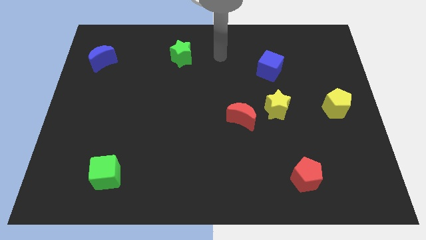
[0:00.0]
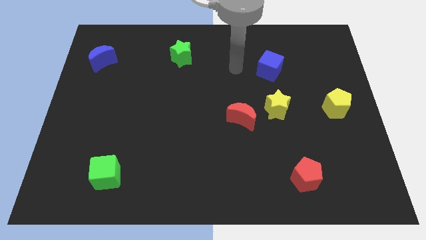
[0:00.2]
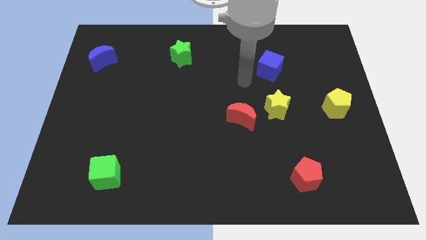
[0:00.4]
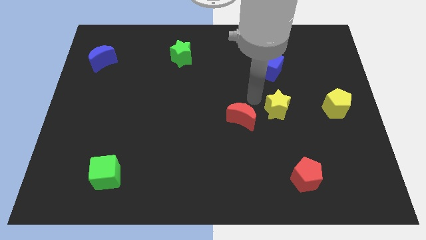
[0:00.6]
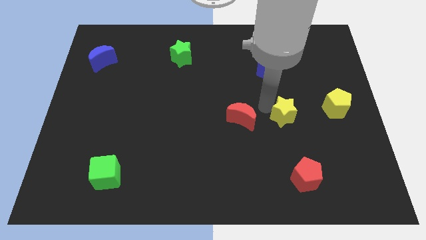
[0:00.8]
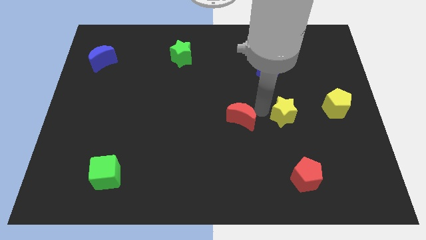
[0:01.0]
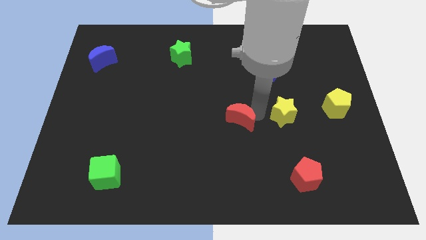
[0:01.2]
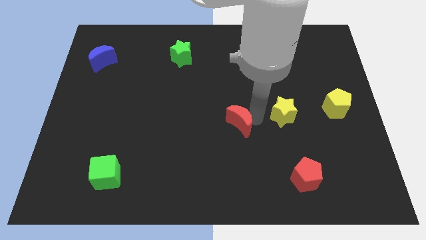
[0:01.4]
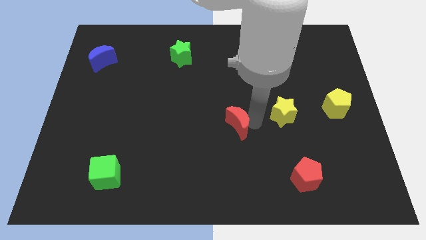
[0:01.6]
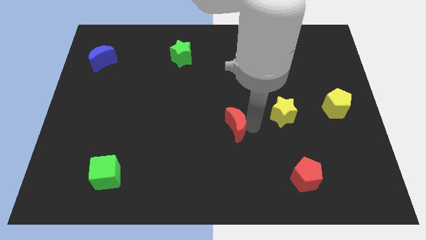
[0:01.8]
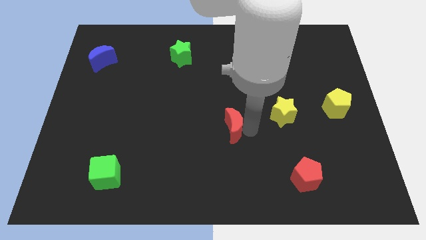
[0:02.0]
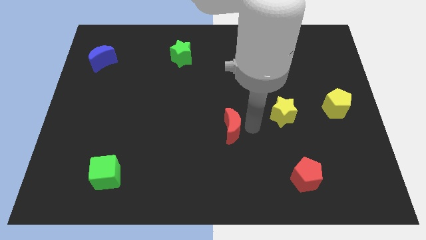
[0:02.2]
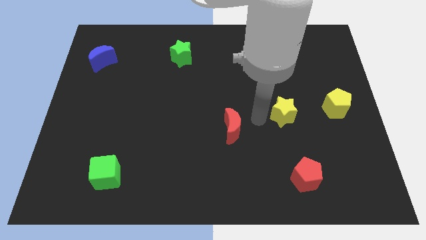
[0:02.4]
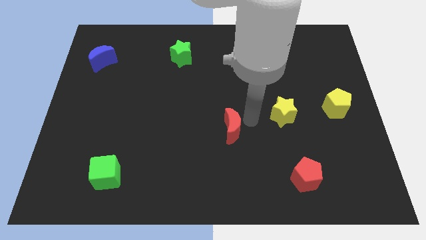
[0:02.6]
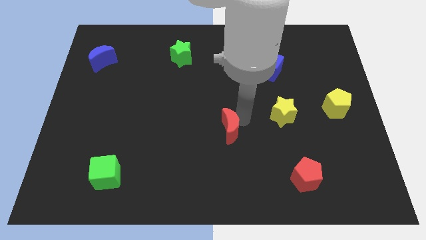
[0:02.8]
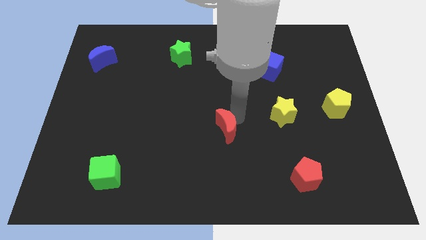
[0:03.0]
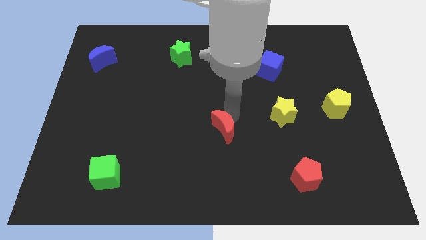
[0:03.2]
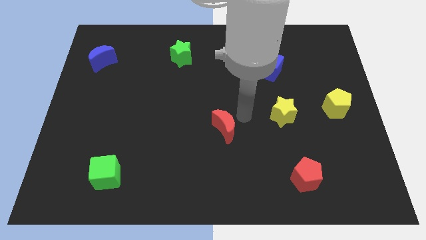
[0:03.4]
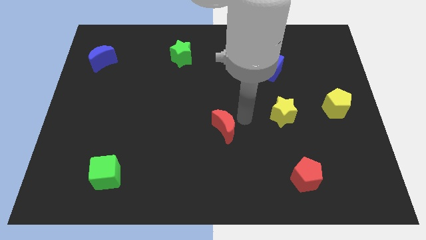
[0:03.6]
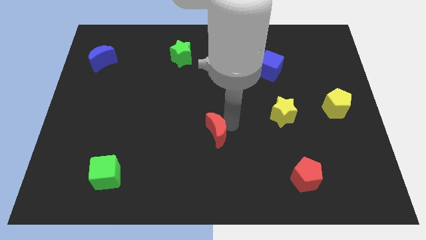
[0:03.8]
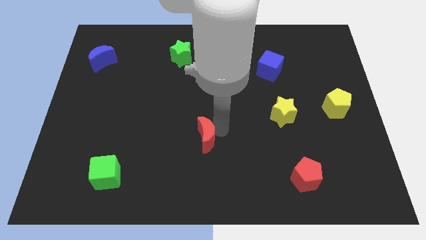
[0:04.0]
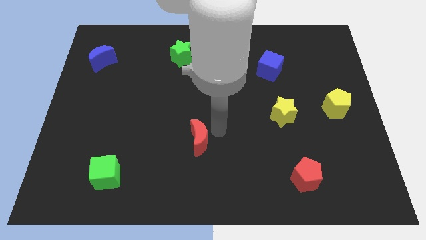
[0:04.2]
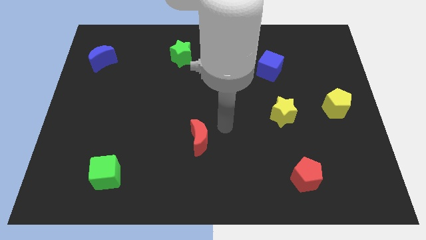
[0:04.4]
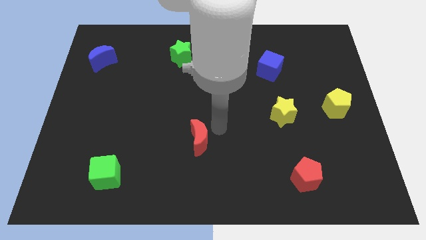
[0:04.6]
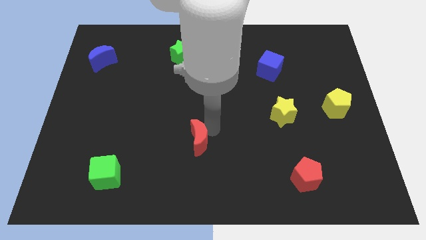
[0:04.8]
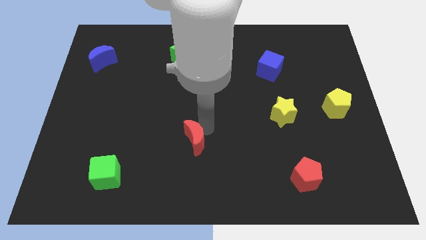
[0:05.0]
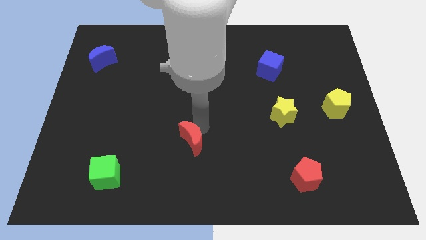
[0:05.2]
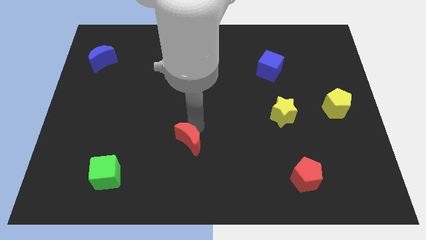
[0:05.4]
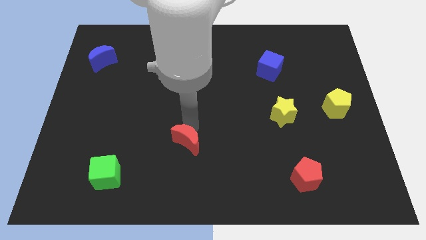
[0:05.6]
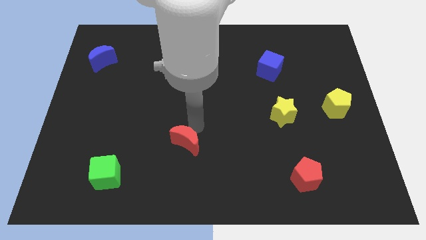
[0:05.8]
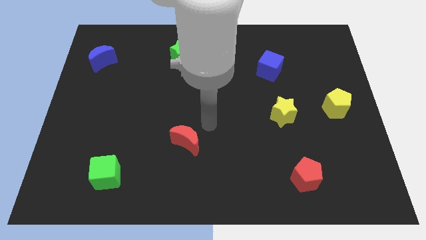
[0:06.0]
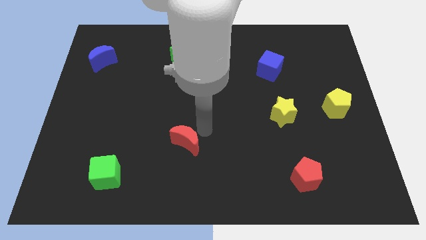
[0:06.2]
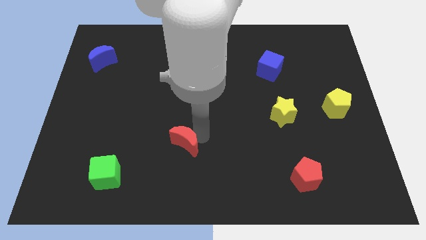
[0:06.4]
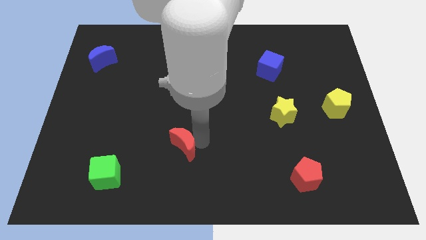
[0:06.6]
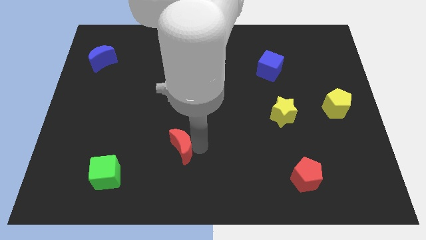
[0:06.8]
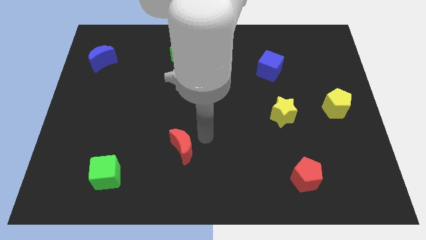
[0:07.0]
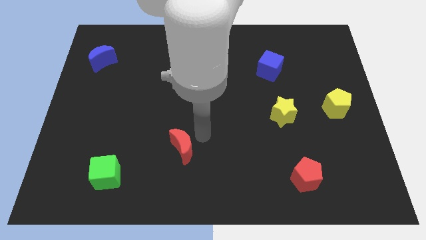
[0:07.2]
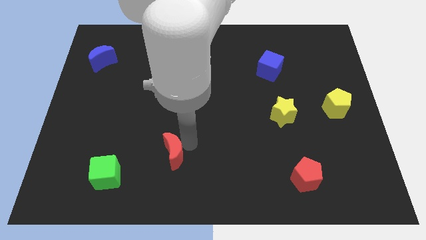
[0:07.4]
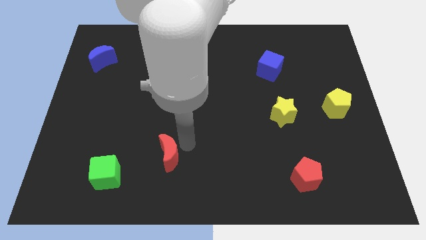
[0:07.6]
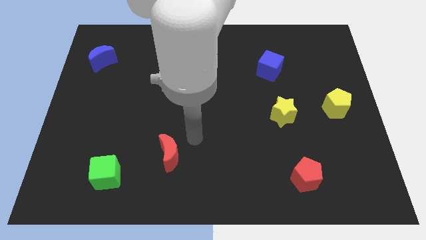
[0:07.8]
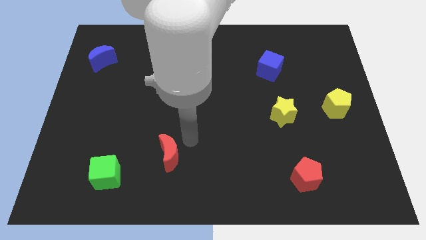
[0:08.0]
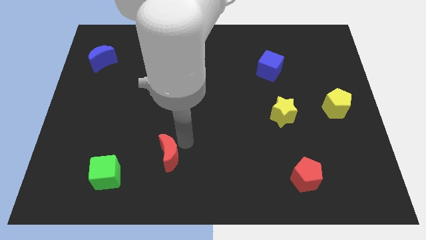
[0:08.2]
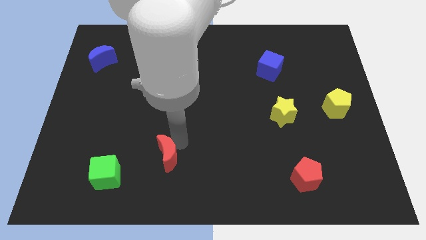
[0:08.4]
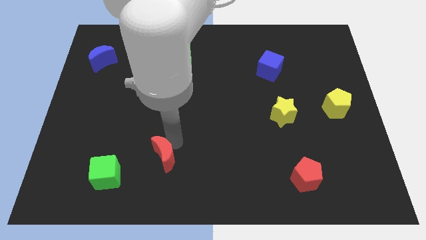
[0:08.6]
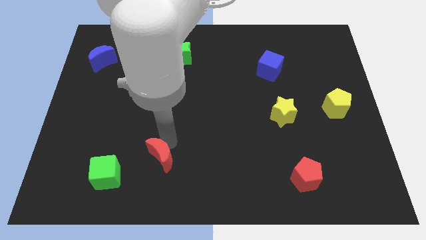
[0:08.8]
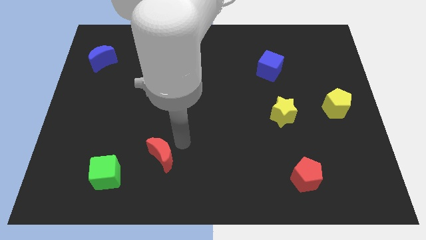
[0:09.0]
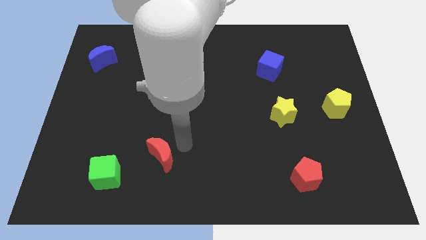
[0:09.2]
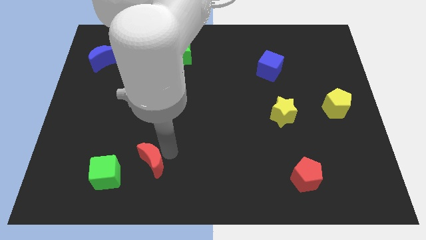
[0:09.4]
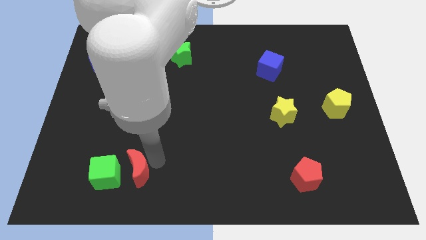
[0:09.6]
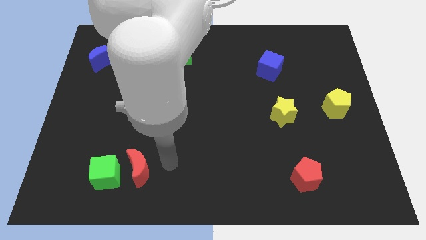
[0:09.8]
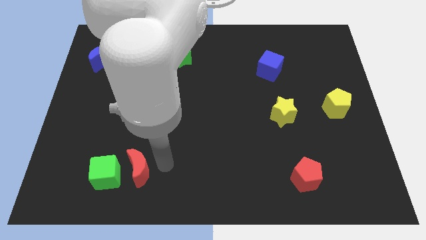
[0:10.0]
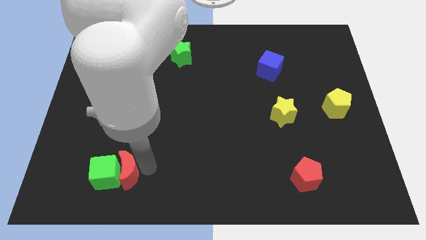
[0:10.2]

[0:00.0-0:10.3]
move the red moon close to the green cube
